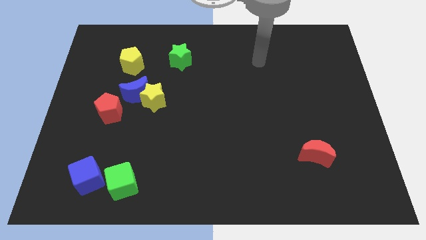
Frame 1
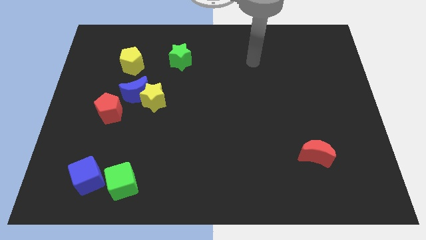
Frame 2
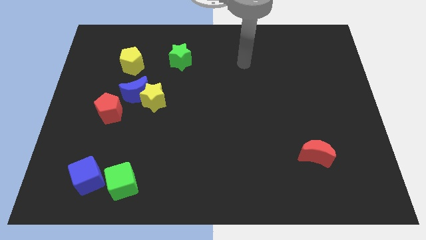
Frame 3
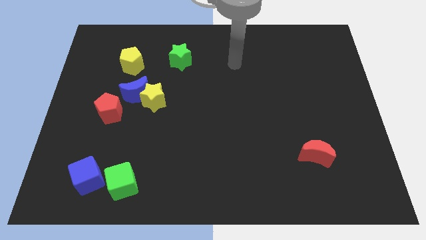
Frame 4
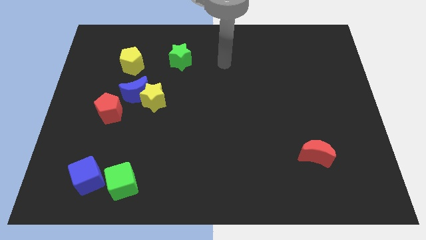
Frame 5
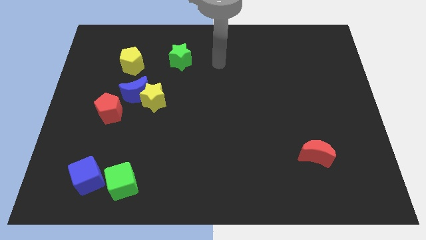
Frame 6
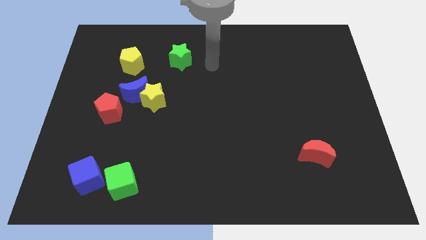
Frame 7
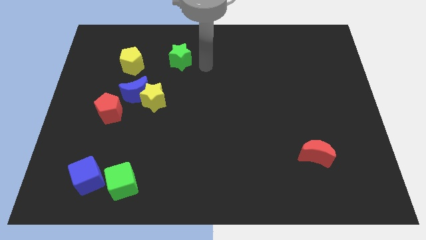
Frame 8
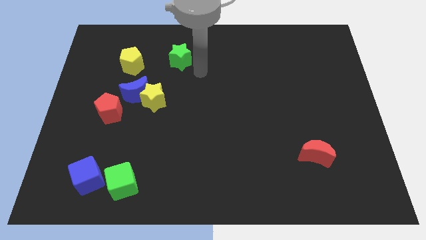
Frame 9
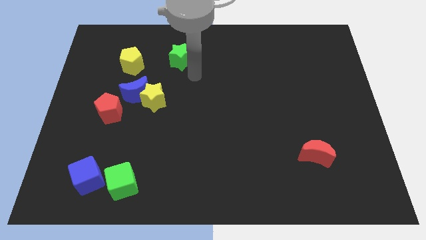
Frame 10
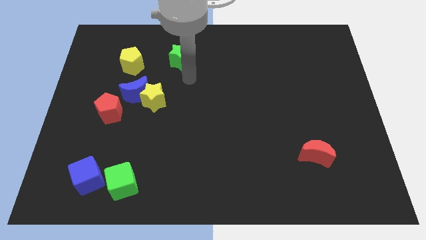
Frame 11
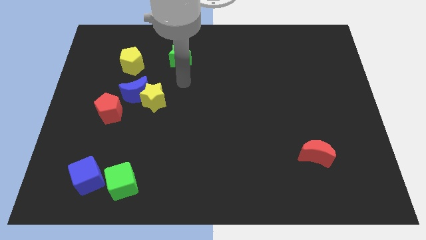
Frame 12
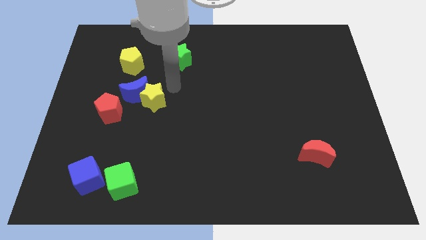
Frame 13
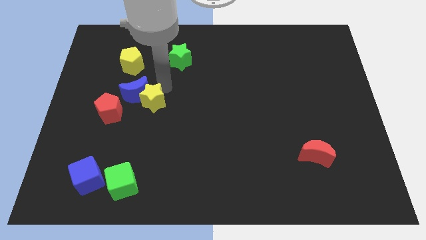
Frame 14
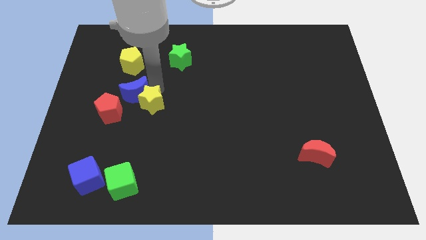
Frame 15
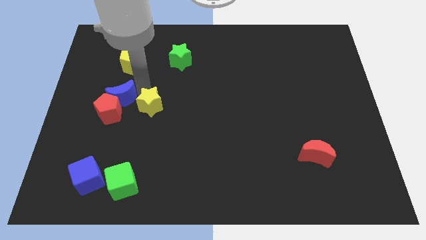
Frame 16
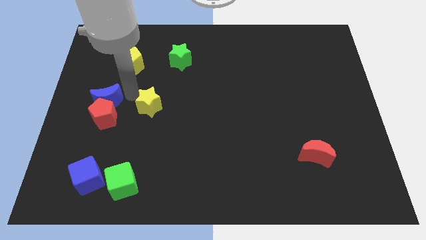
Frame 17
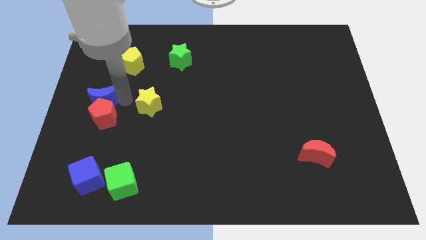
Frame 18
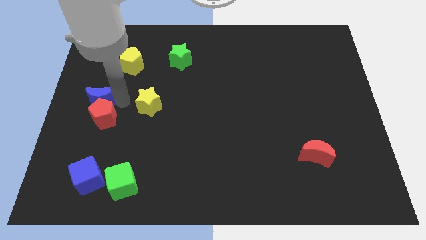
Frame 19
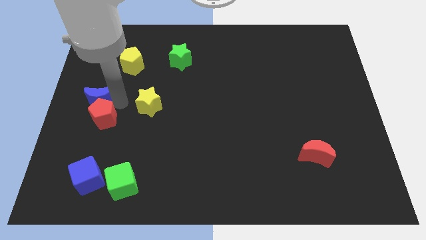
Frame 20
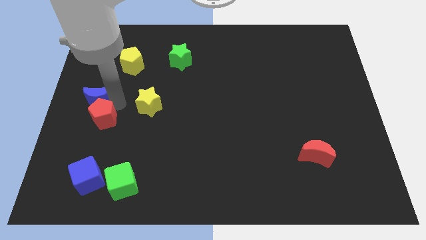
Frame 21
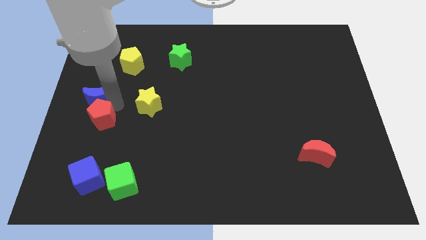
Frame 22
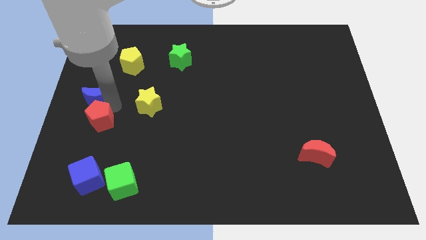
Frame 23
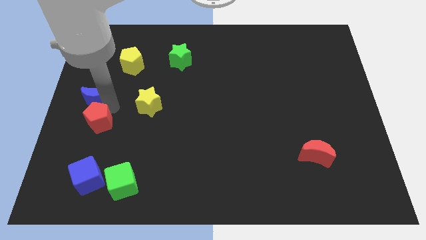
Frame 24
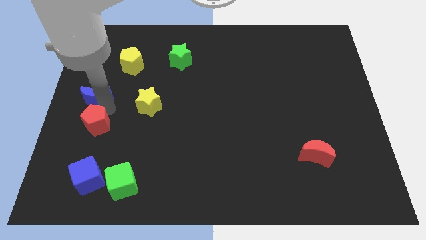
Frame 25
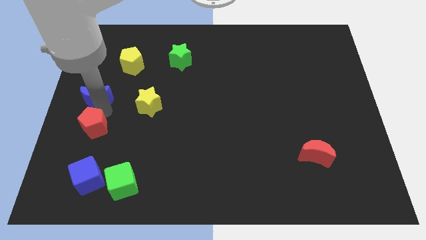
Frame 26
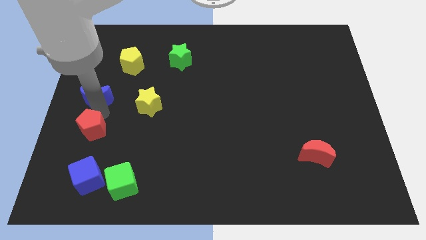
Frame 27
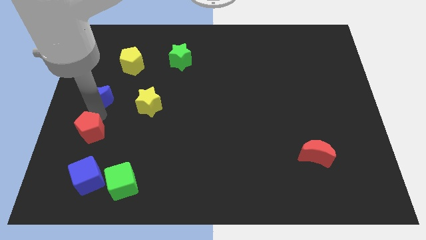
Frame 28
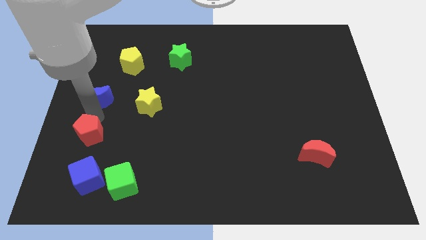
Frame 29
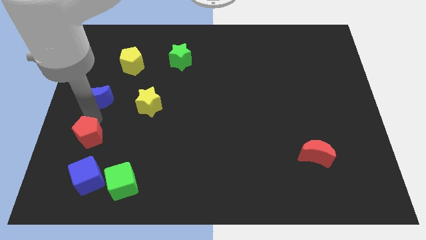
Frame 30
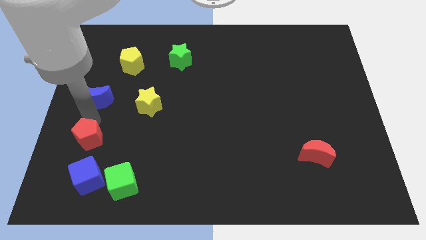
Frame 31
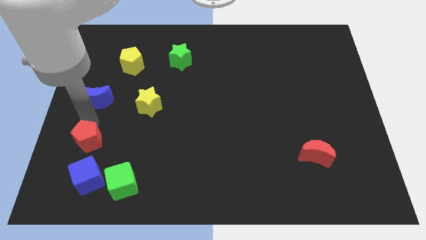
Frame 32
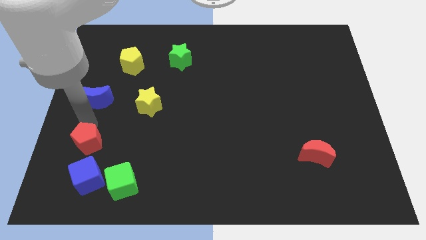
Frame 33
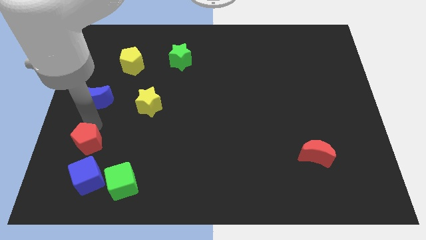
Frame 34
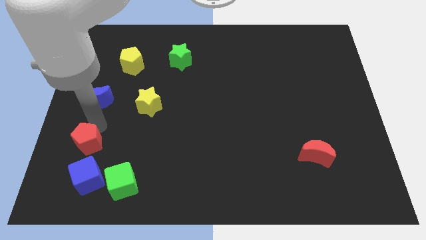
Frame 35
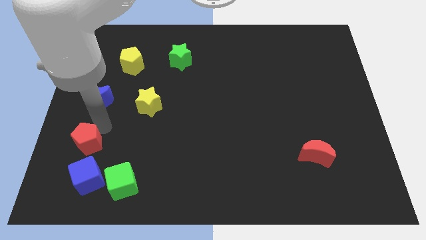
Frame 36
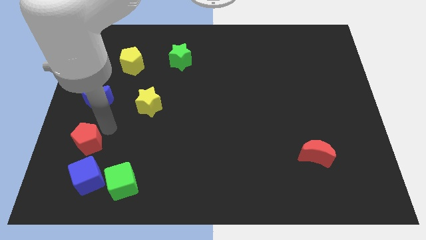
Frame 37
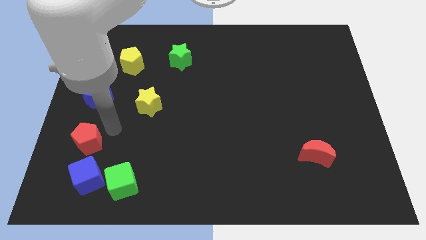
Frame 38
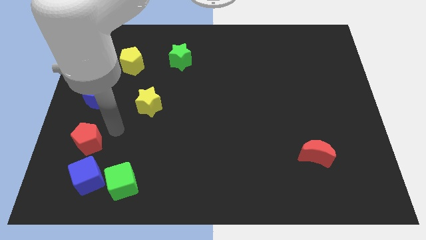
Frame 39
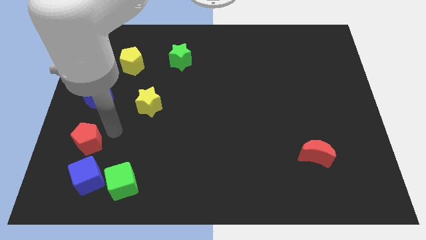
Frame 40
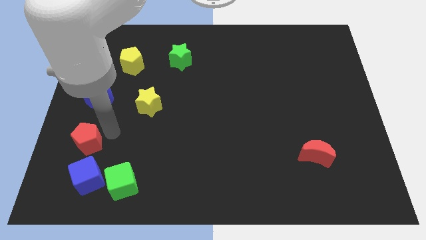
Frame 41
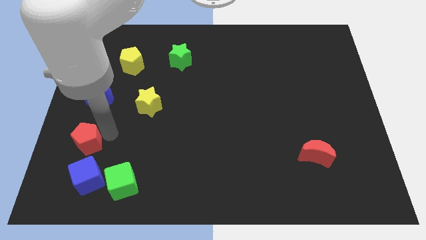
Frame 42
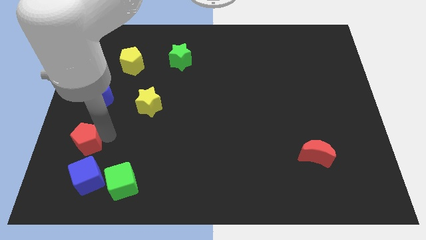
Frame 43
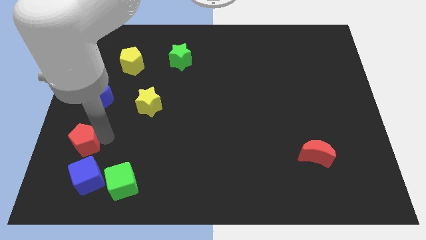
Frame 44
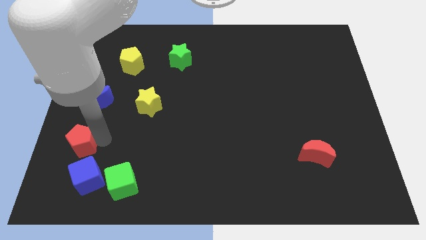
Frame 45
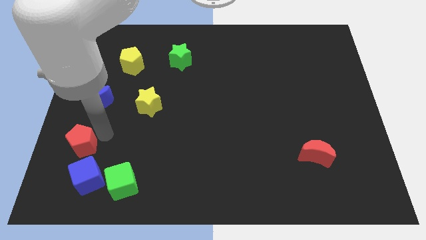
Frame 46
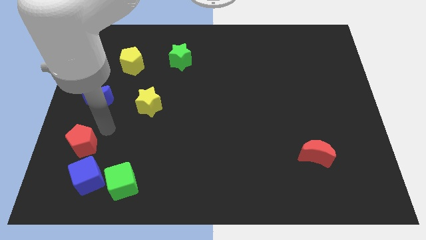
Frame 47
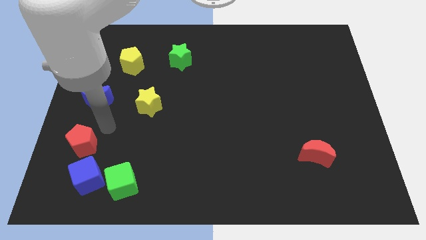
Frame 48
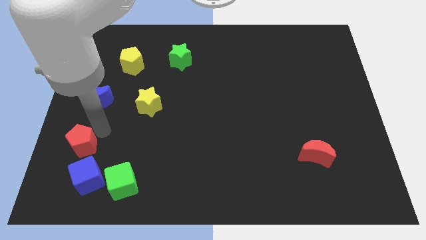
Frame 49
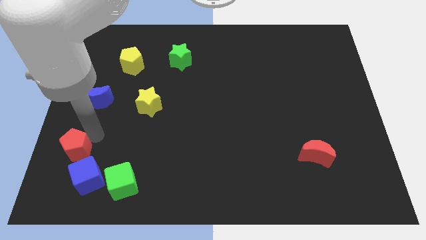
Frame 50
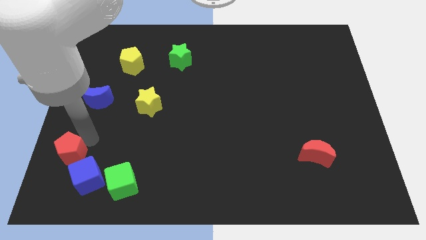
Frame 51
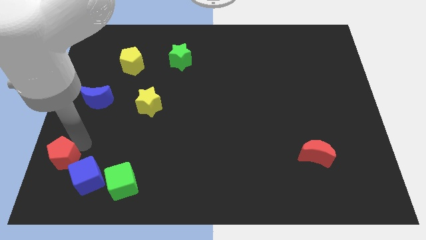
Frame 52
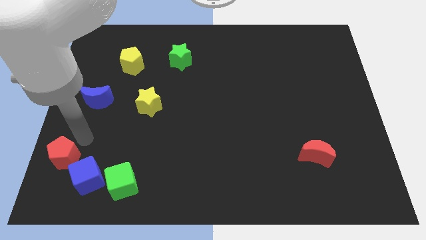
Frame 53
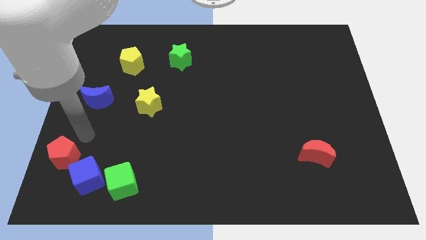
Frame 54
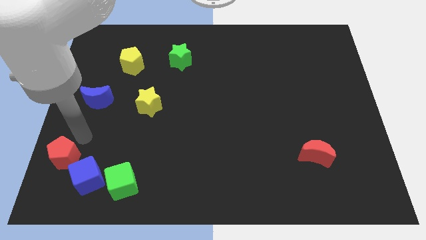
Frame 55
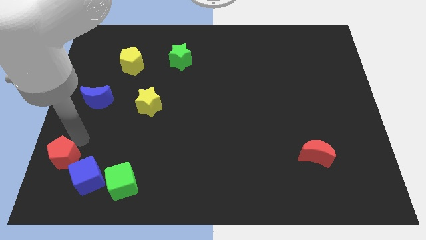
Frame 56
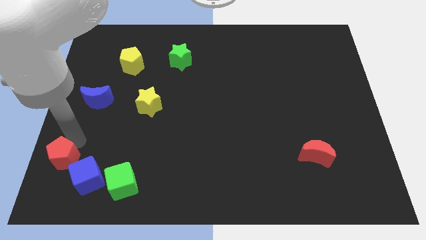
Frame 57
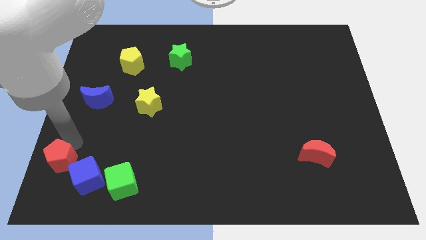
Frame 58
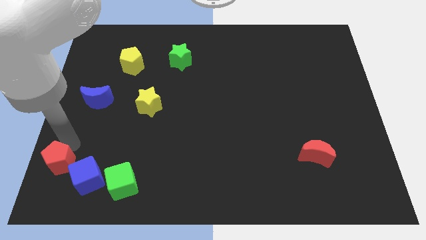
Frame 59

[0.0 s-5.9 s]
put the red pentagon to the bottom left of the board

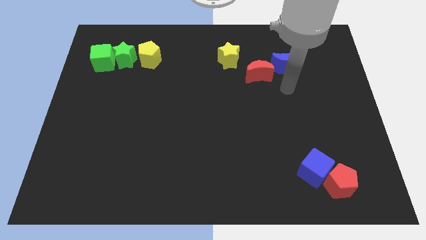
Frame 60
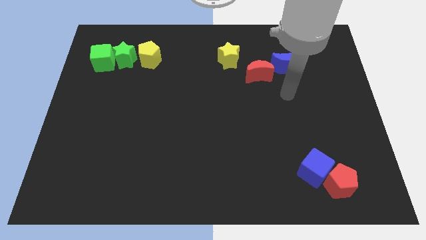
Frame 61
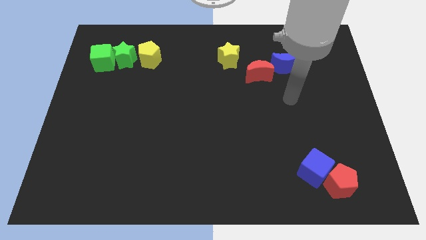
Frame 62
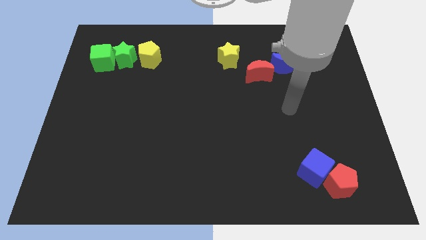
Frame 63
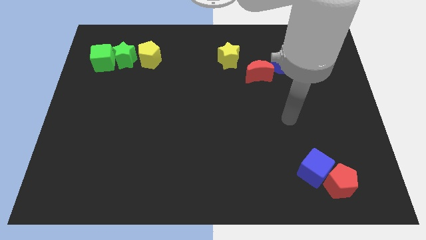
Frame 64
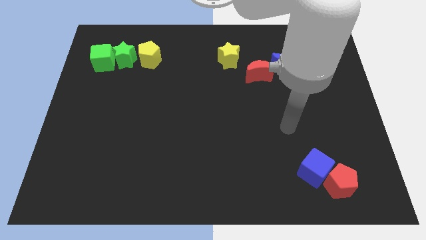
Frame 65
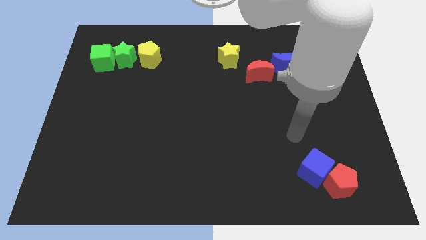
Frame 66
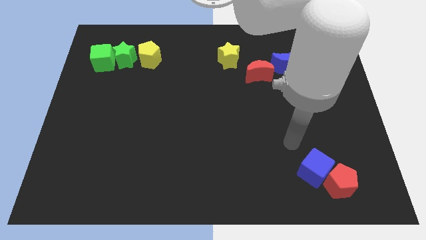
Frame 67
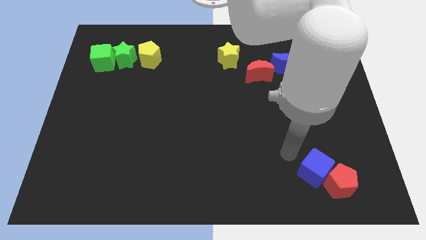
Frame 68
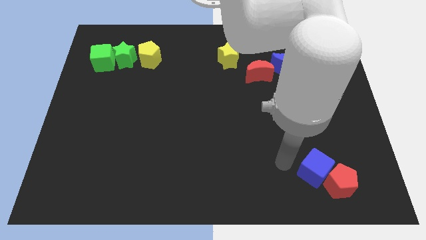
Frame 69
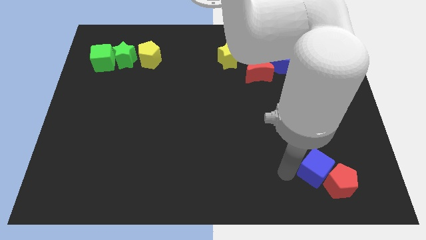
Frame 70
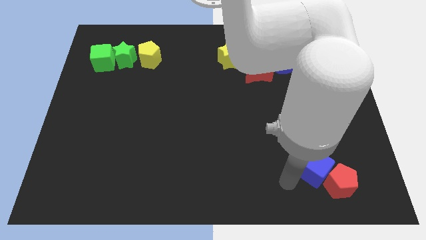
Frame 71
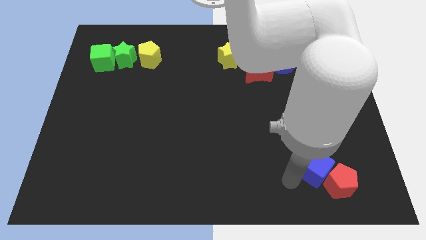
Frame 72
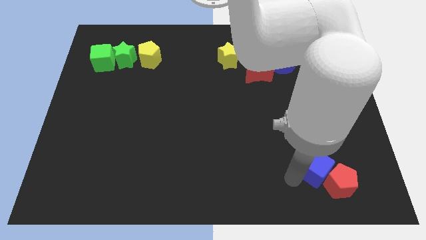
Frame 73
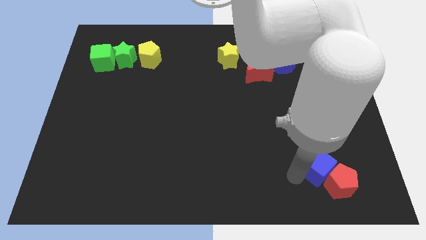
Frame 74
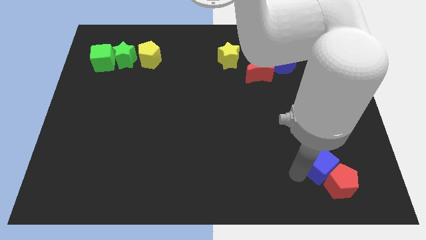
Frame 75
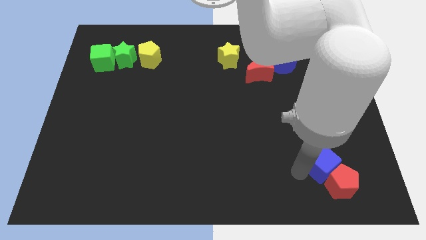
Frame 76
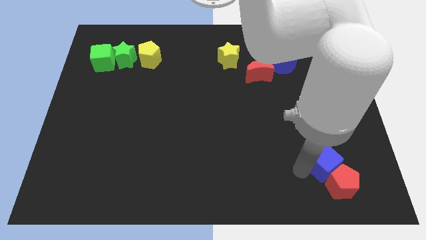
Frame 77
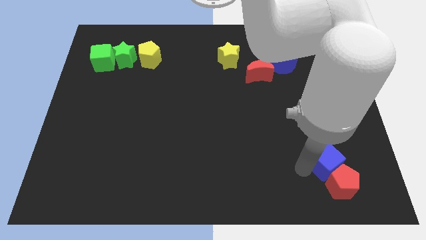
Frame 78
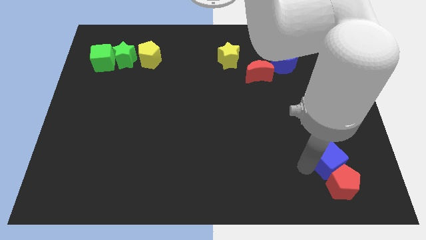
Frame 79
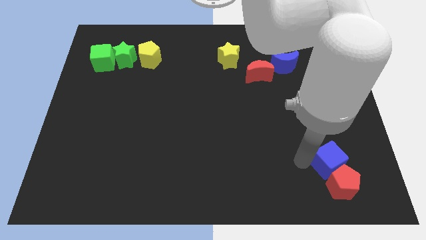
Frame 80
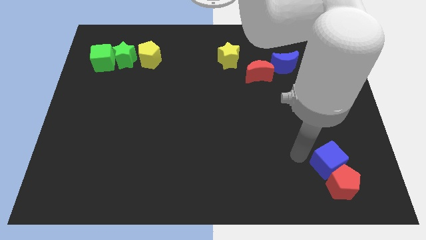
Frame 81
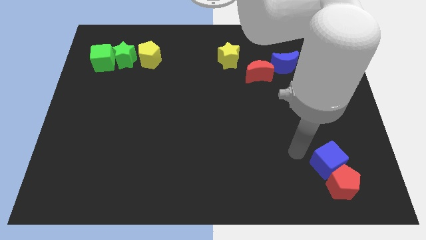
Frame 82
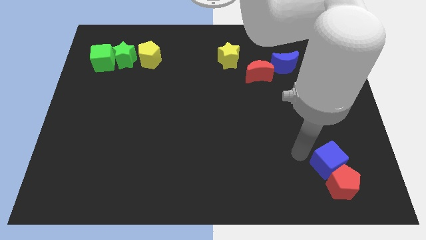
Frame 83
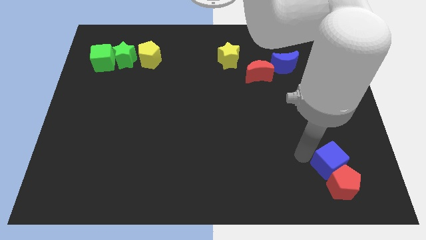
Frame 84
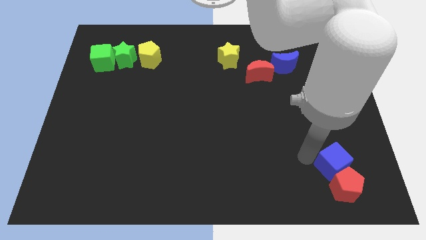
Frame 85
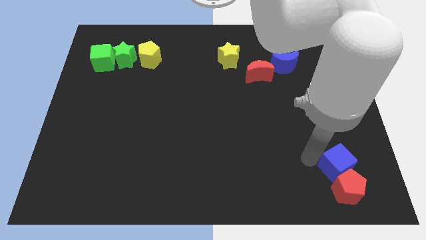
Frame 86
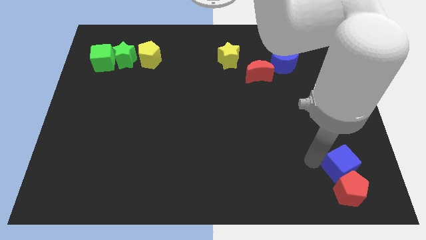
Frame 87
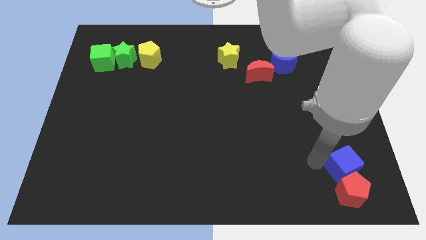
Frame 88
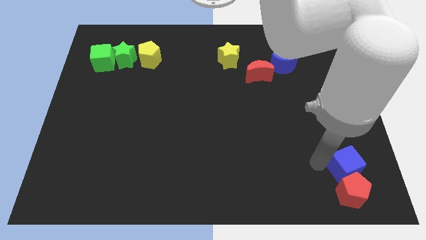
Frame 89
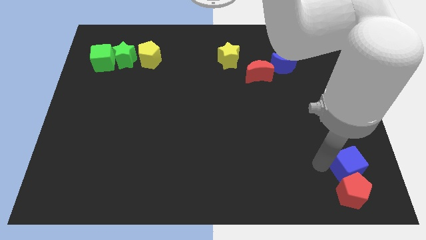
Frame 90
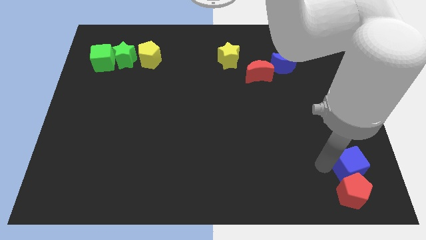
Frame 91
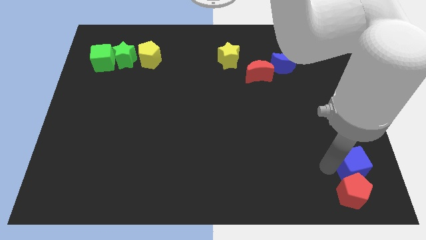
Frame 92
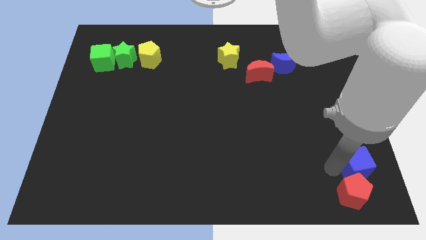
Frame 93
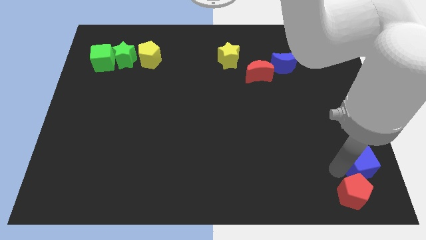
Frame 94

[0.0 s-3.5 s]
slide the blue cube to the bottom right of the board
